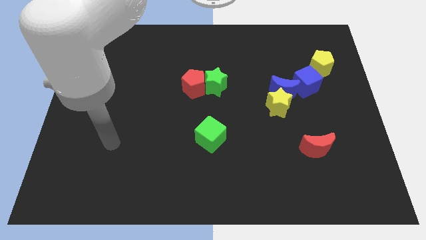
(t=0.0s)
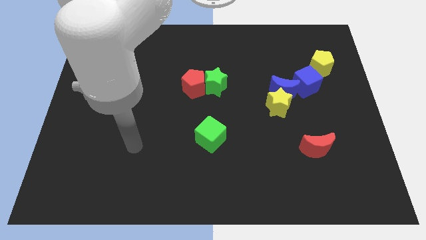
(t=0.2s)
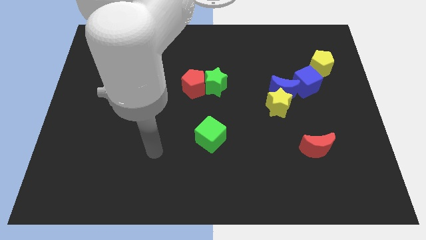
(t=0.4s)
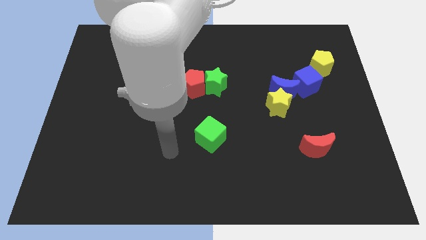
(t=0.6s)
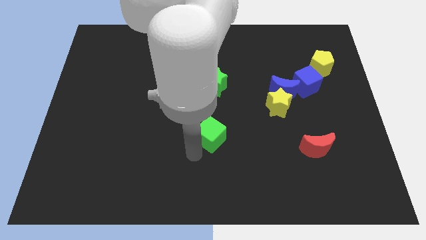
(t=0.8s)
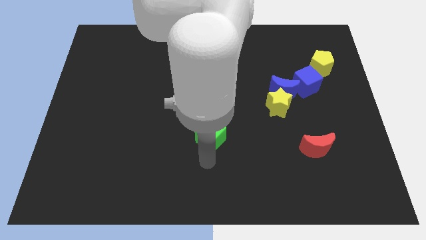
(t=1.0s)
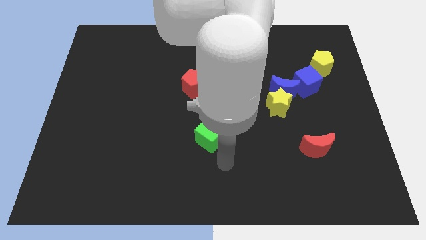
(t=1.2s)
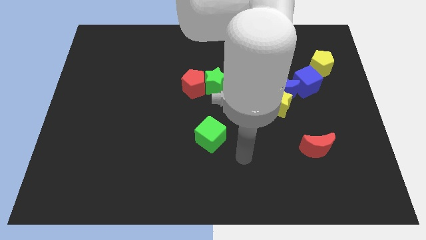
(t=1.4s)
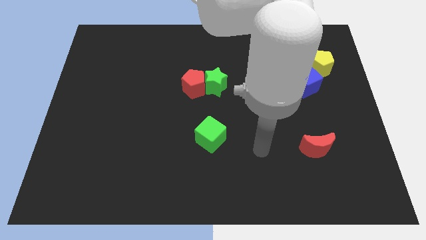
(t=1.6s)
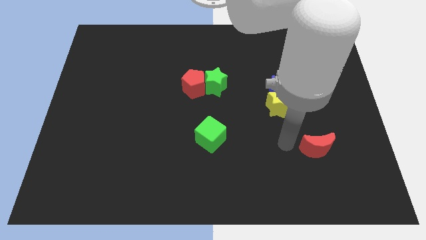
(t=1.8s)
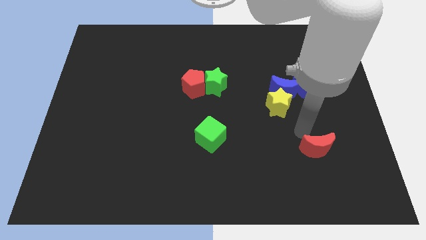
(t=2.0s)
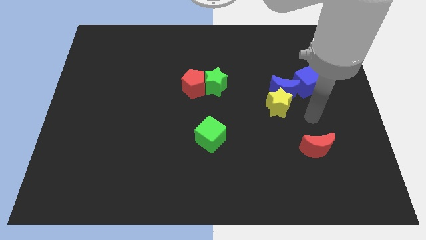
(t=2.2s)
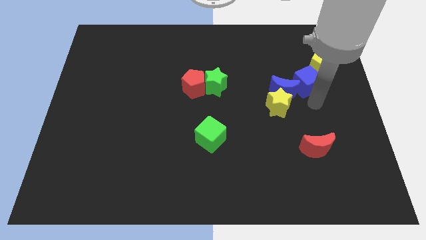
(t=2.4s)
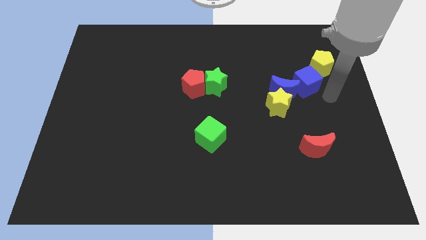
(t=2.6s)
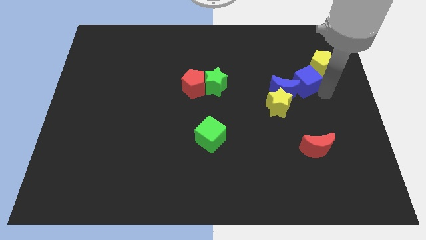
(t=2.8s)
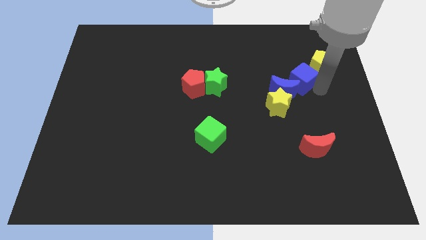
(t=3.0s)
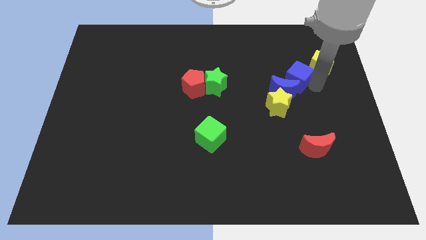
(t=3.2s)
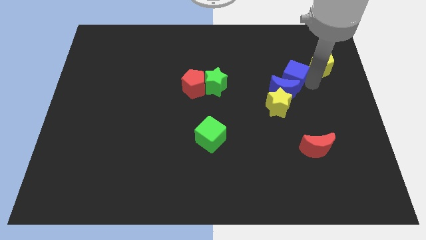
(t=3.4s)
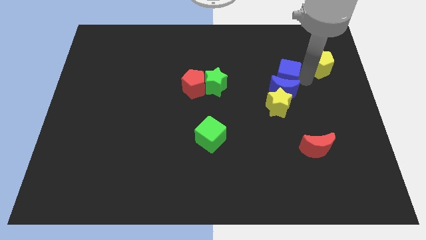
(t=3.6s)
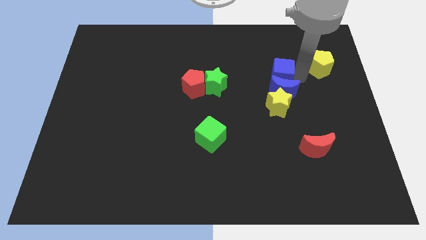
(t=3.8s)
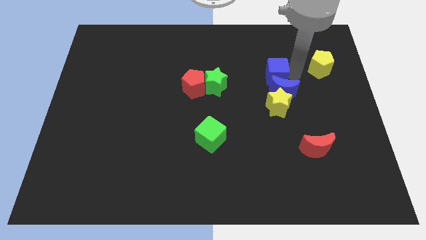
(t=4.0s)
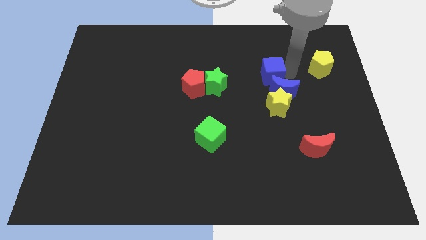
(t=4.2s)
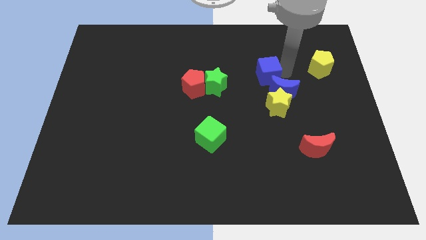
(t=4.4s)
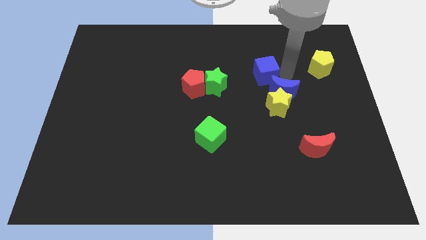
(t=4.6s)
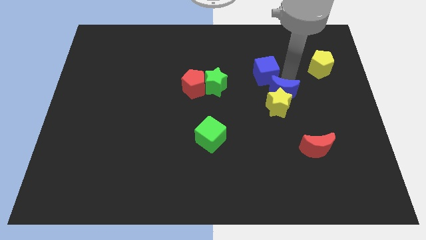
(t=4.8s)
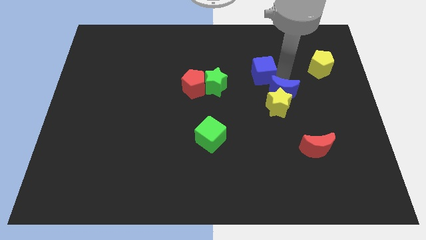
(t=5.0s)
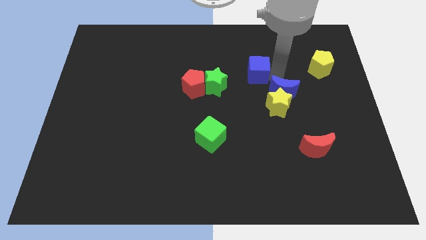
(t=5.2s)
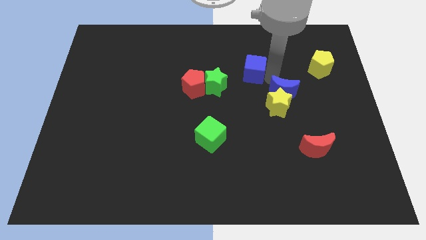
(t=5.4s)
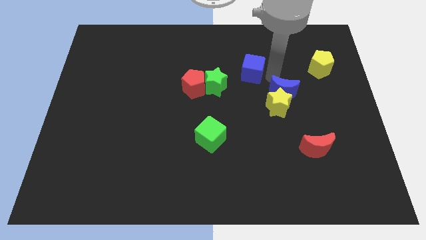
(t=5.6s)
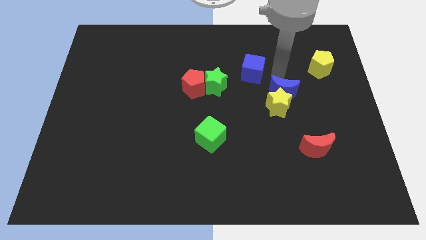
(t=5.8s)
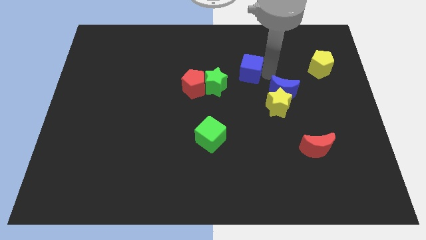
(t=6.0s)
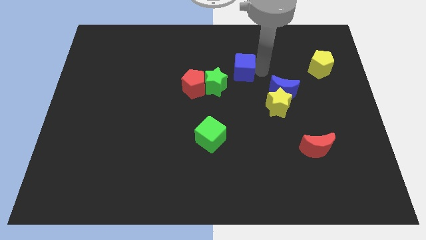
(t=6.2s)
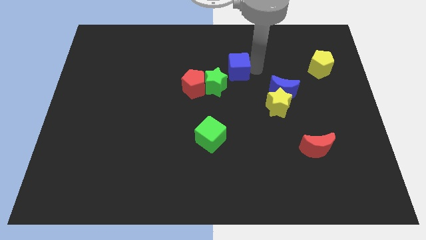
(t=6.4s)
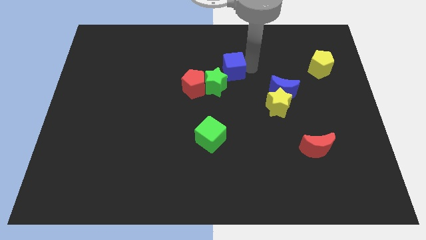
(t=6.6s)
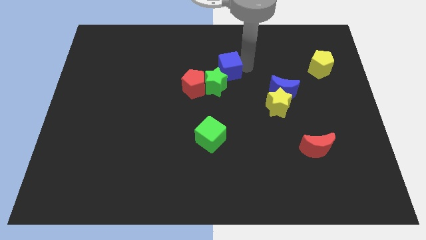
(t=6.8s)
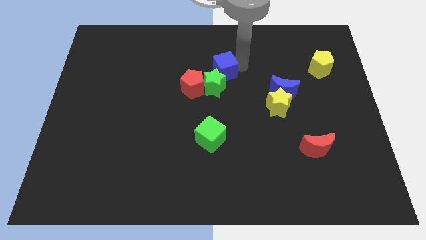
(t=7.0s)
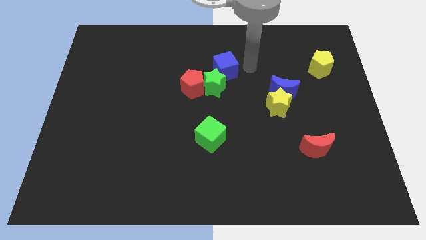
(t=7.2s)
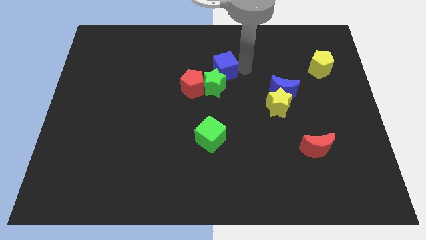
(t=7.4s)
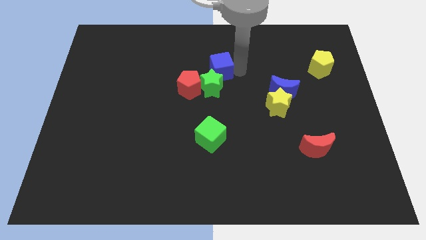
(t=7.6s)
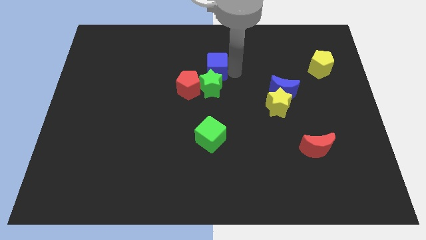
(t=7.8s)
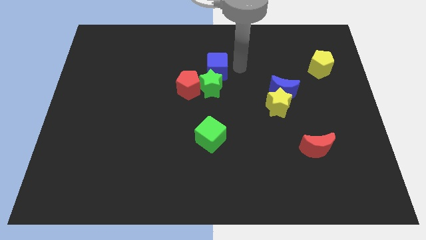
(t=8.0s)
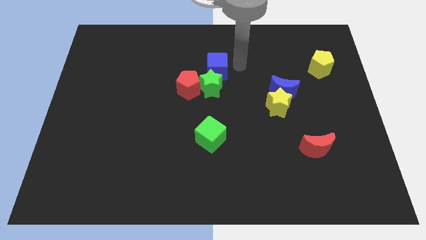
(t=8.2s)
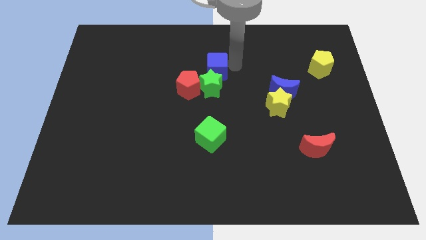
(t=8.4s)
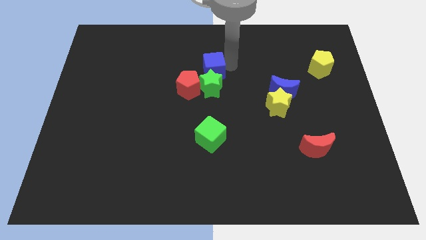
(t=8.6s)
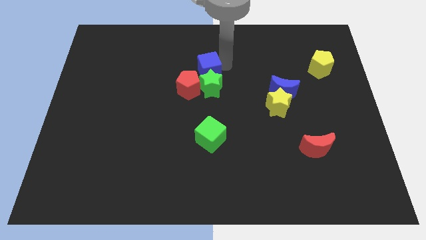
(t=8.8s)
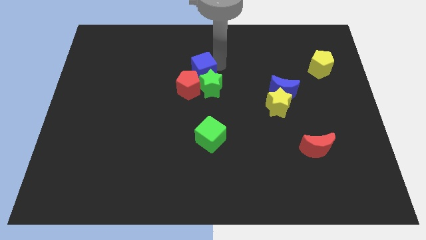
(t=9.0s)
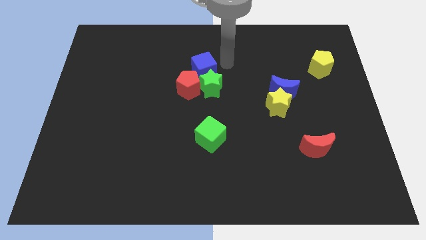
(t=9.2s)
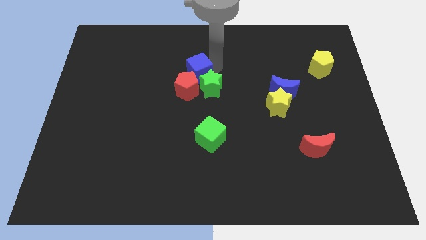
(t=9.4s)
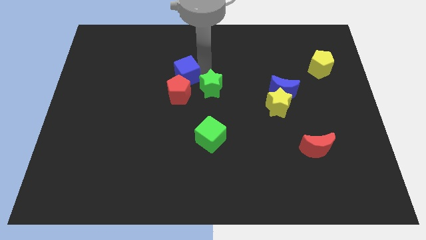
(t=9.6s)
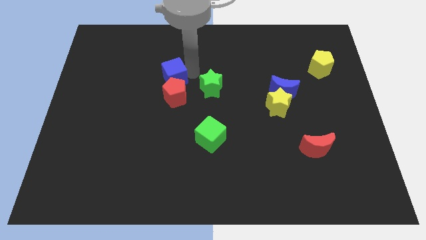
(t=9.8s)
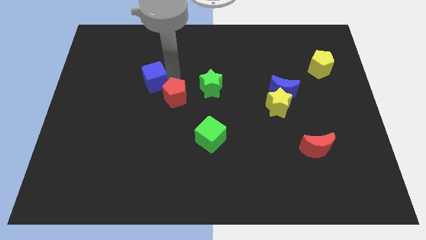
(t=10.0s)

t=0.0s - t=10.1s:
put the blue cube just left of the red pentagon

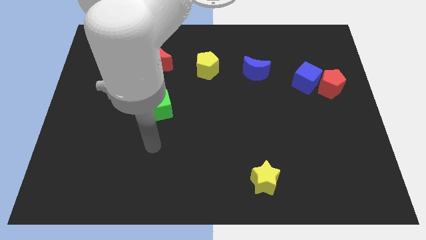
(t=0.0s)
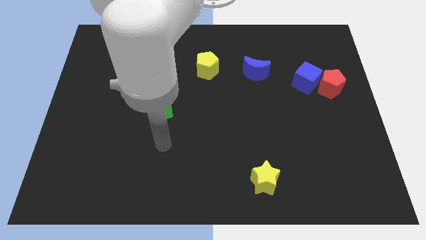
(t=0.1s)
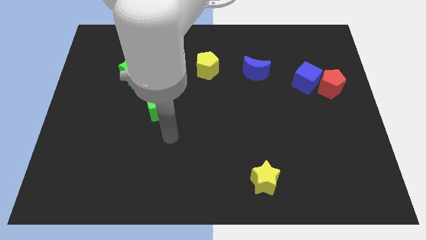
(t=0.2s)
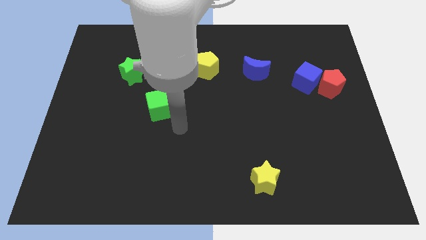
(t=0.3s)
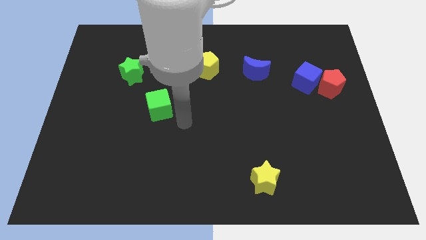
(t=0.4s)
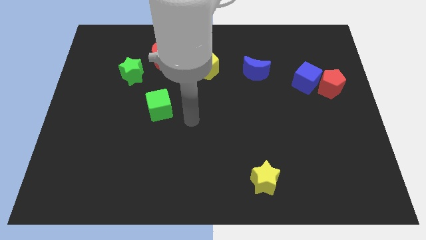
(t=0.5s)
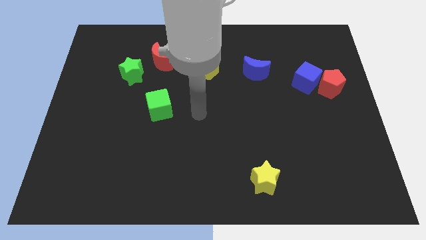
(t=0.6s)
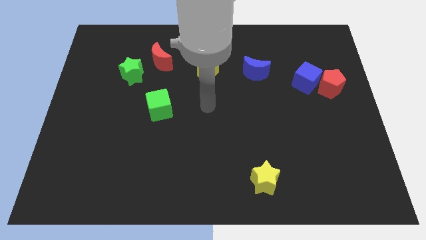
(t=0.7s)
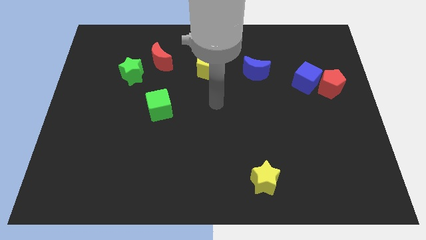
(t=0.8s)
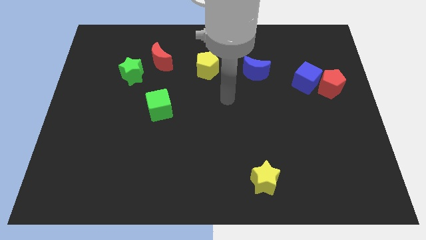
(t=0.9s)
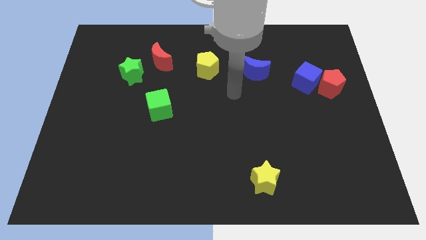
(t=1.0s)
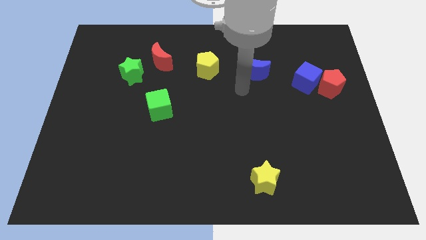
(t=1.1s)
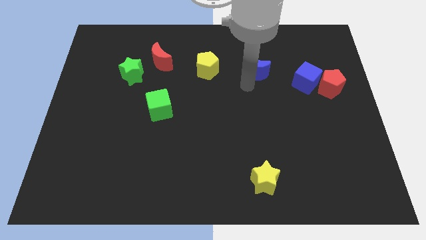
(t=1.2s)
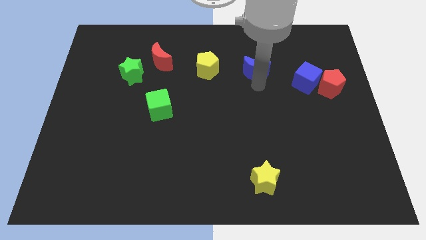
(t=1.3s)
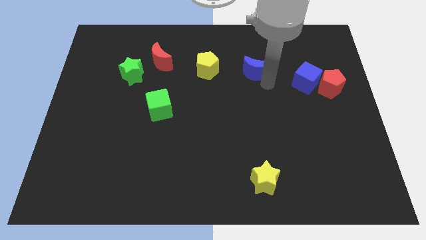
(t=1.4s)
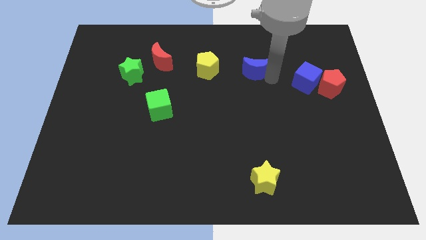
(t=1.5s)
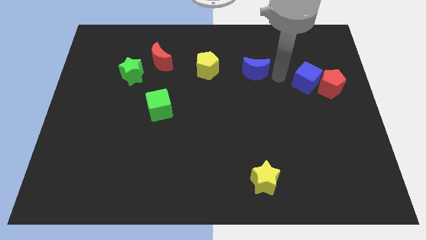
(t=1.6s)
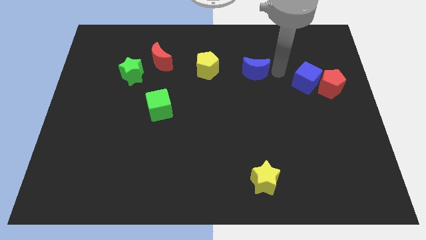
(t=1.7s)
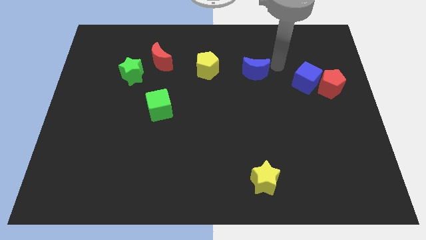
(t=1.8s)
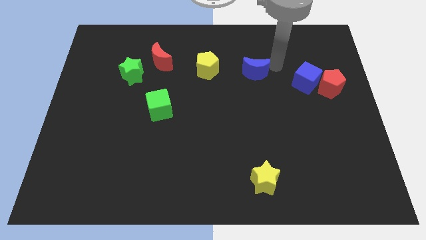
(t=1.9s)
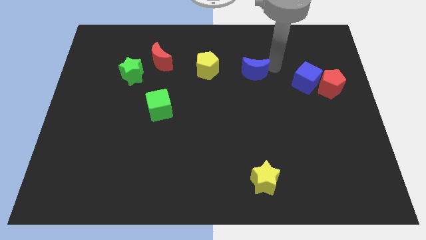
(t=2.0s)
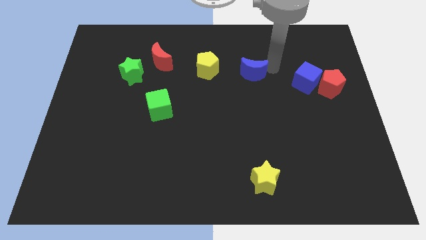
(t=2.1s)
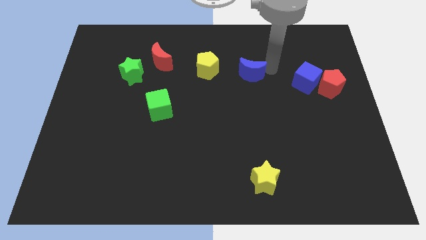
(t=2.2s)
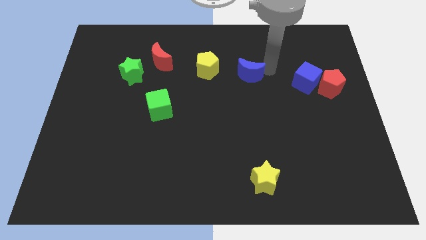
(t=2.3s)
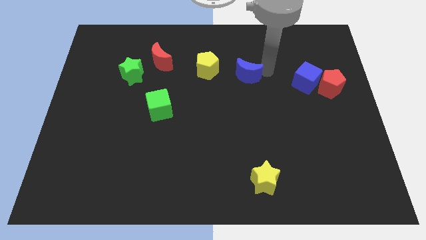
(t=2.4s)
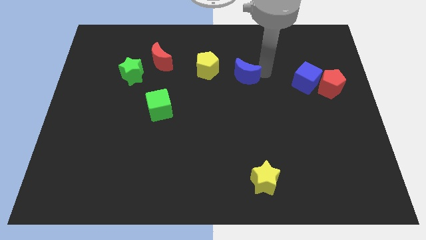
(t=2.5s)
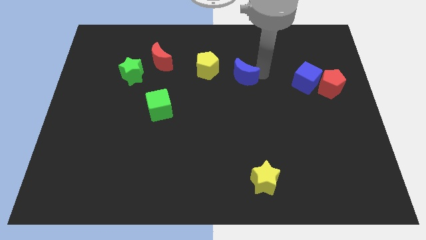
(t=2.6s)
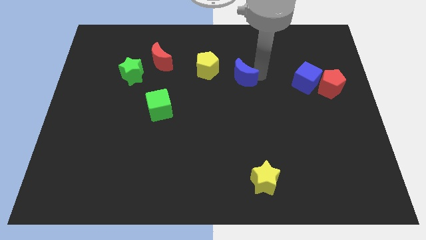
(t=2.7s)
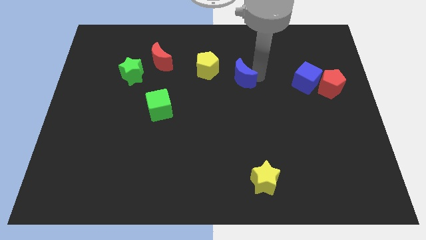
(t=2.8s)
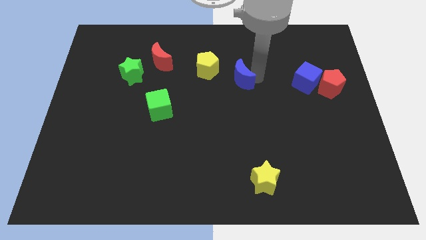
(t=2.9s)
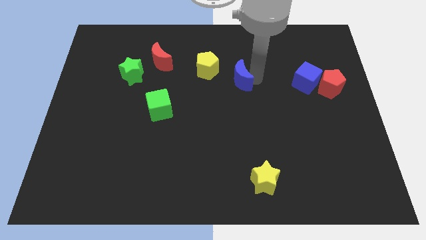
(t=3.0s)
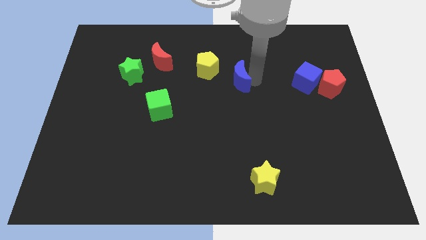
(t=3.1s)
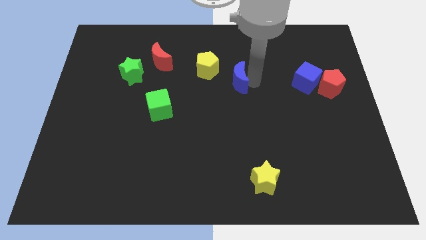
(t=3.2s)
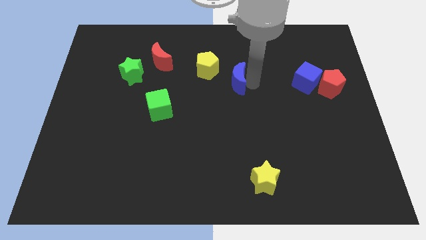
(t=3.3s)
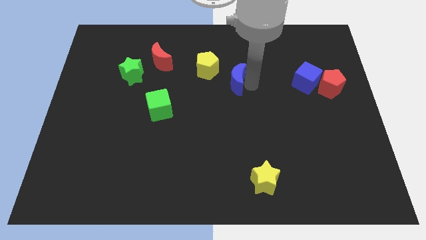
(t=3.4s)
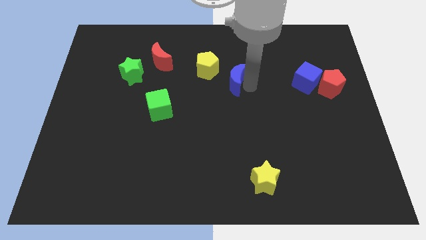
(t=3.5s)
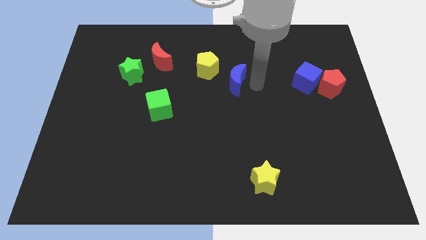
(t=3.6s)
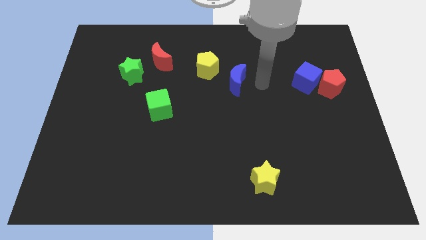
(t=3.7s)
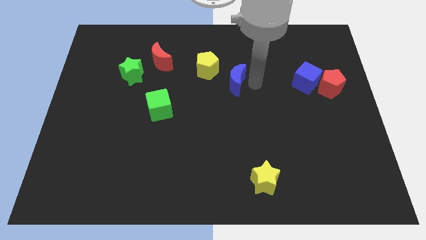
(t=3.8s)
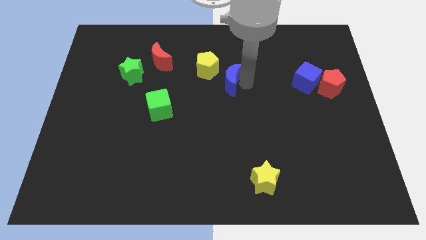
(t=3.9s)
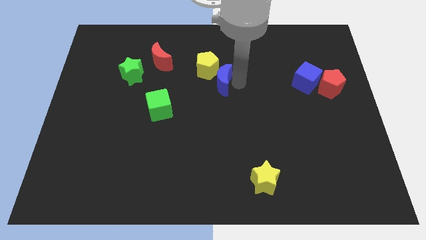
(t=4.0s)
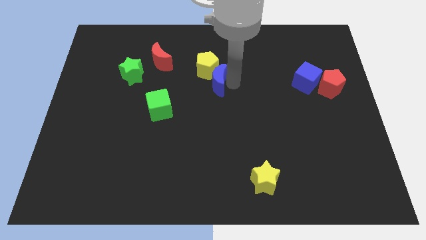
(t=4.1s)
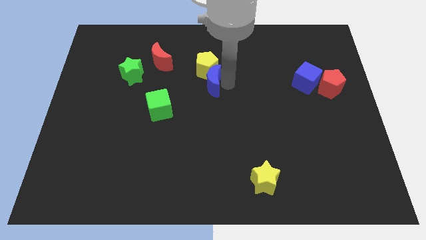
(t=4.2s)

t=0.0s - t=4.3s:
slide the blue moon diagonally down and to the left of the yellow pentagon
